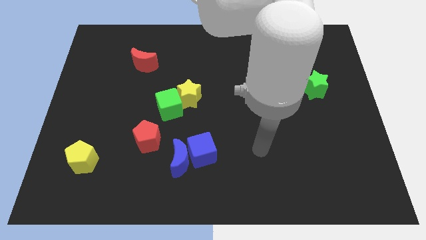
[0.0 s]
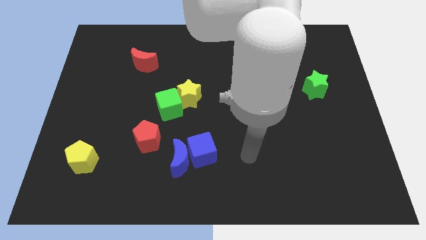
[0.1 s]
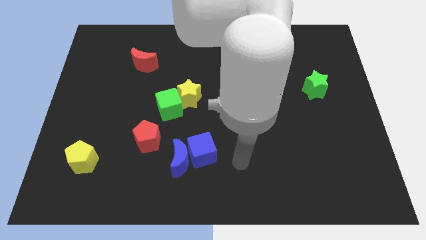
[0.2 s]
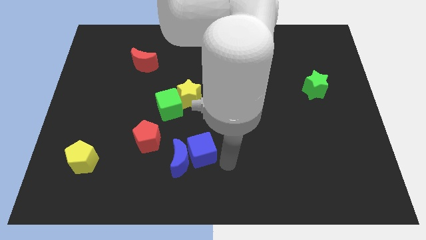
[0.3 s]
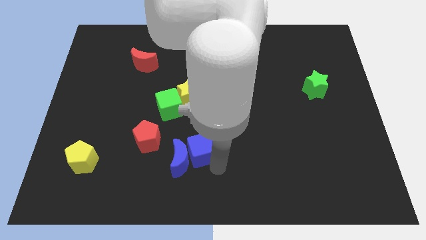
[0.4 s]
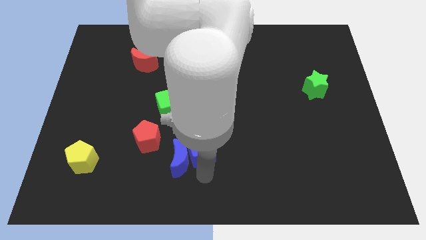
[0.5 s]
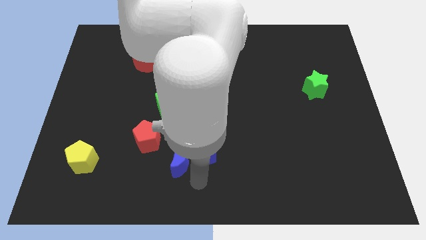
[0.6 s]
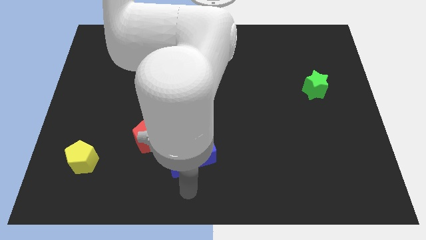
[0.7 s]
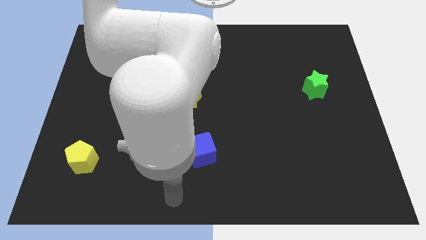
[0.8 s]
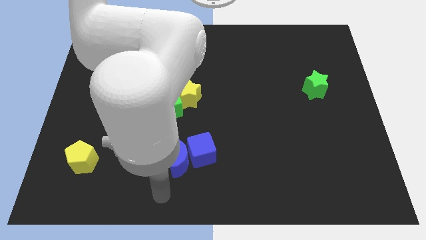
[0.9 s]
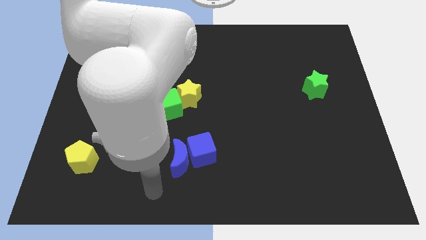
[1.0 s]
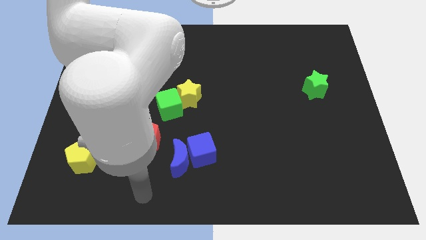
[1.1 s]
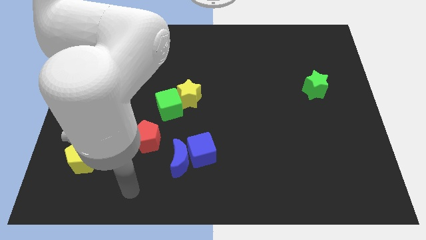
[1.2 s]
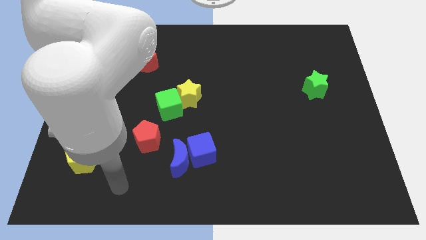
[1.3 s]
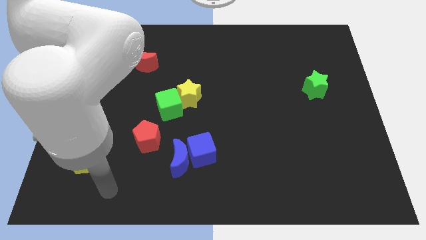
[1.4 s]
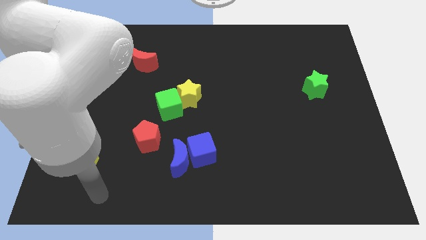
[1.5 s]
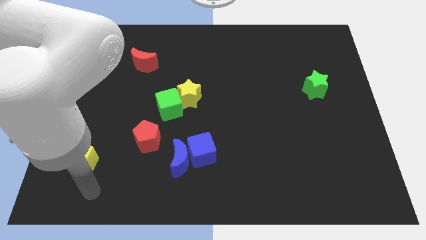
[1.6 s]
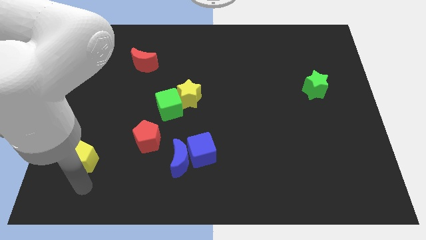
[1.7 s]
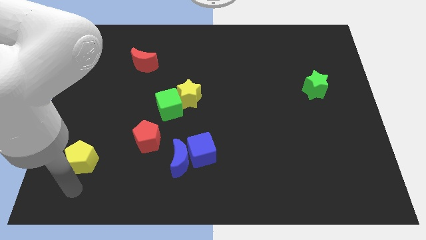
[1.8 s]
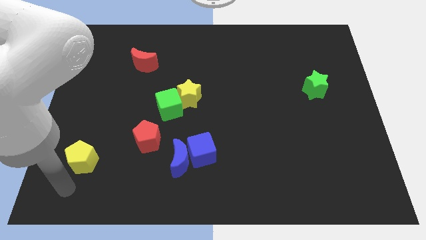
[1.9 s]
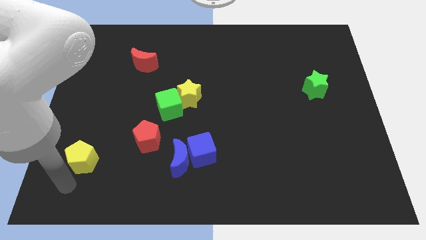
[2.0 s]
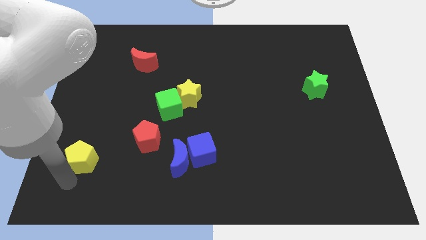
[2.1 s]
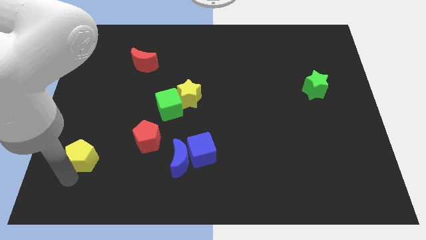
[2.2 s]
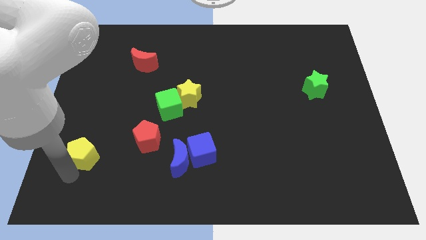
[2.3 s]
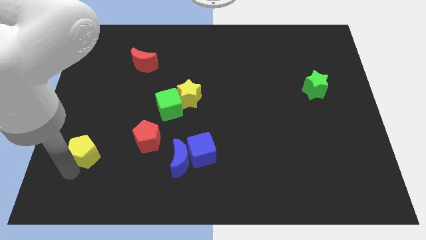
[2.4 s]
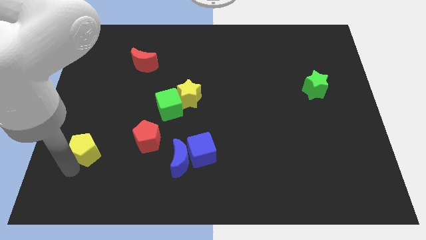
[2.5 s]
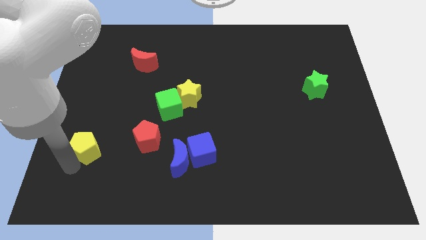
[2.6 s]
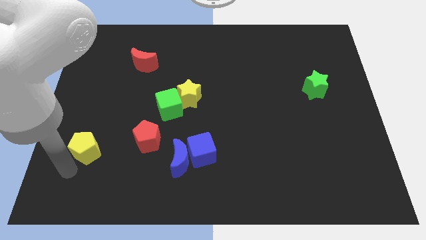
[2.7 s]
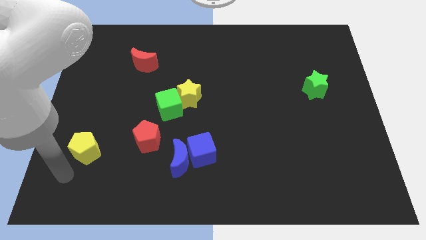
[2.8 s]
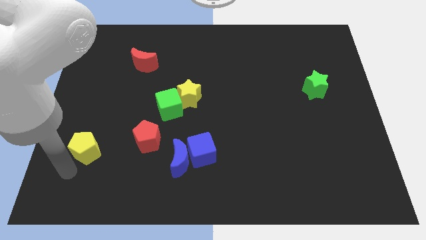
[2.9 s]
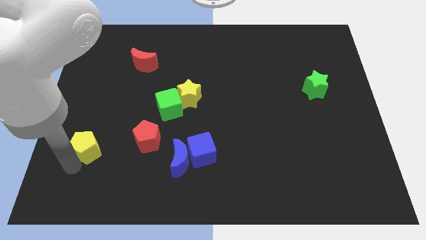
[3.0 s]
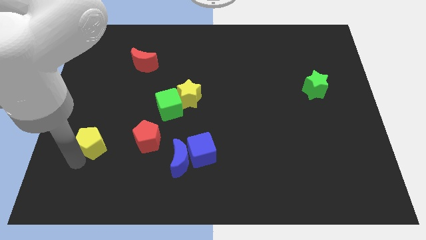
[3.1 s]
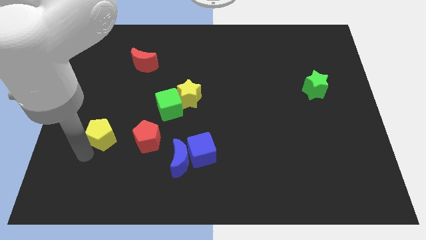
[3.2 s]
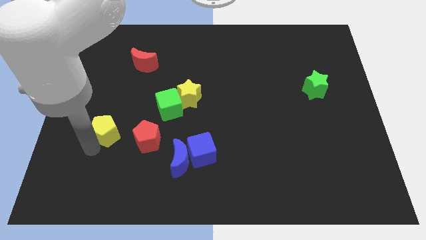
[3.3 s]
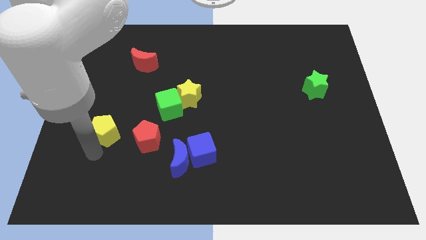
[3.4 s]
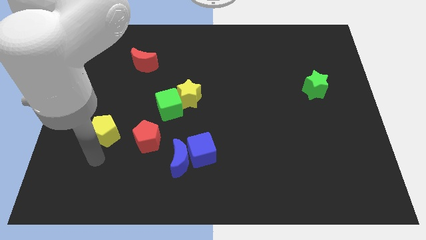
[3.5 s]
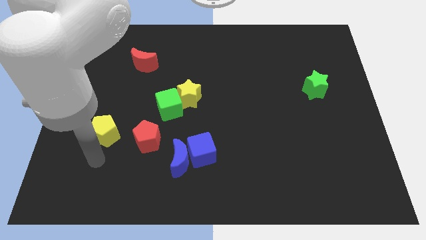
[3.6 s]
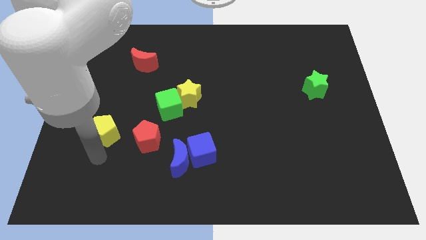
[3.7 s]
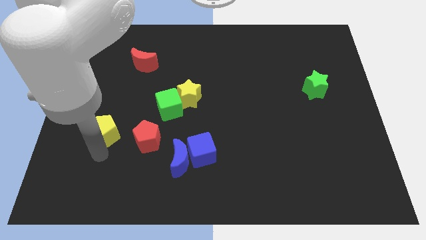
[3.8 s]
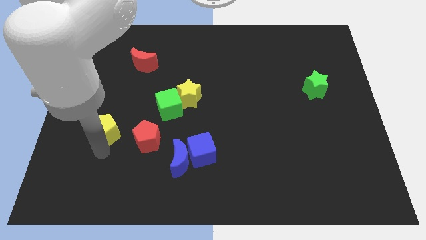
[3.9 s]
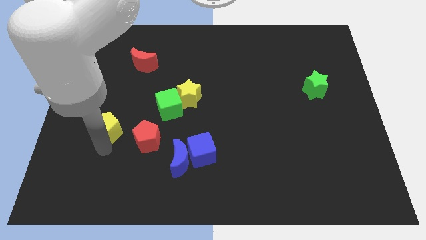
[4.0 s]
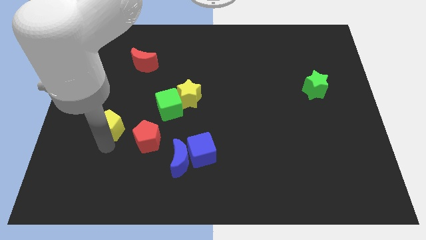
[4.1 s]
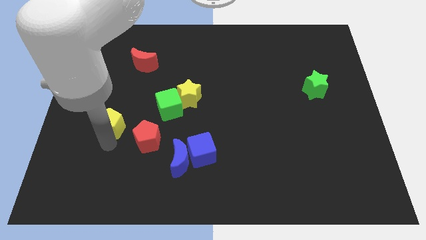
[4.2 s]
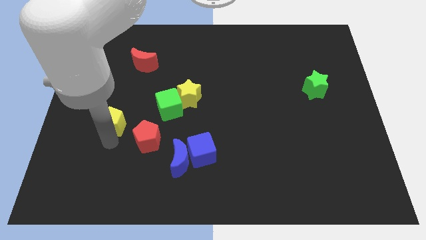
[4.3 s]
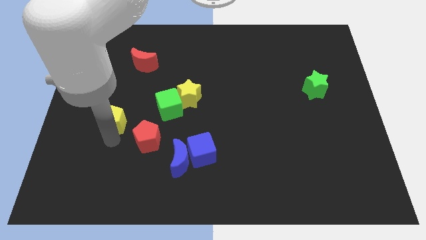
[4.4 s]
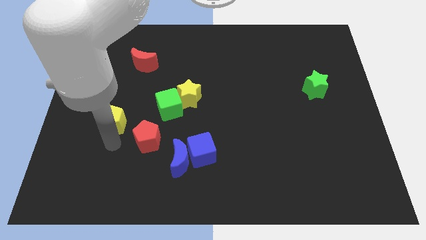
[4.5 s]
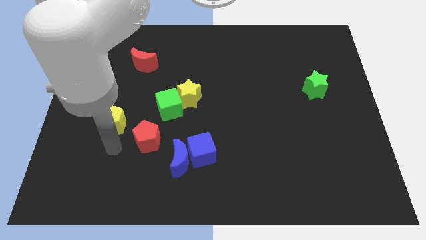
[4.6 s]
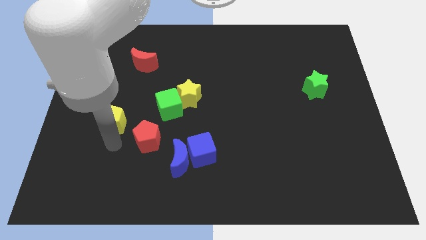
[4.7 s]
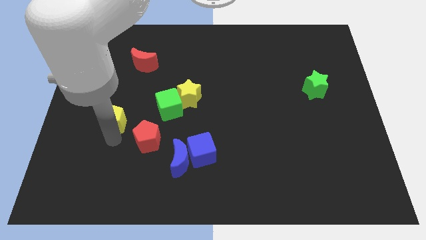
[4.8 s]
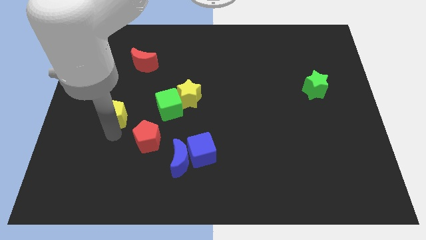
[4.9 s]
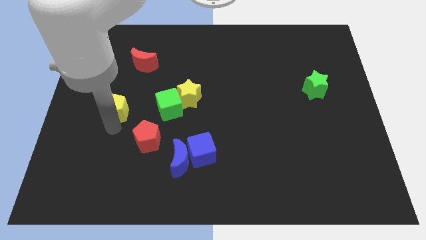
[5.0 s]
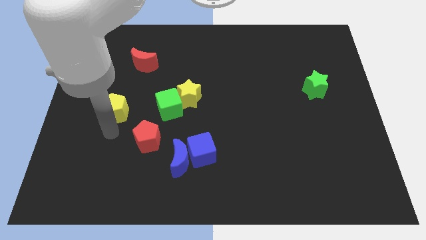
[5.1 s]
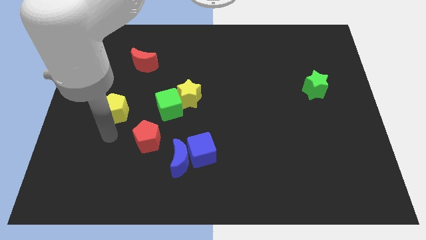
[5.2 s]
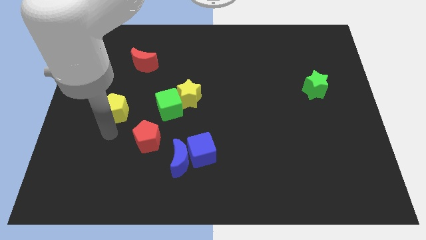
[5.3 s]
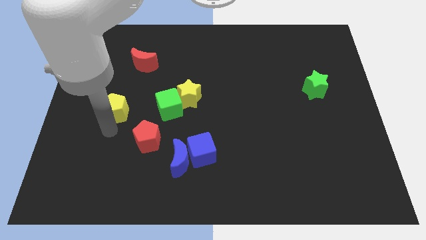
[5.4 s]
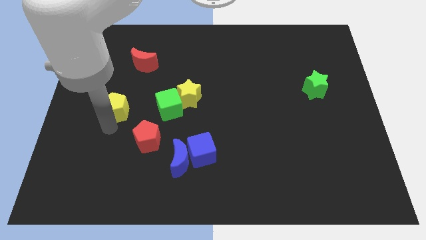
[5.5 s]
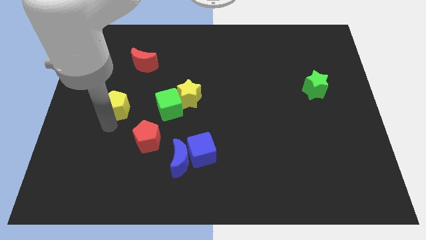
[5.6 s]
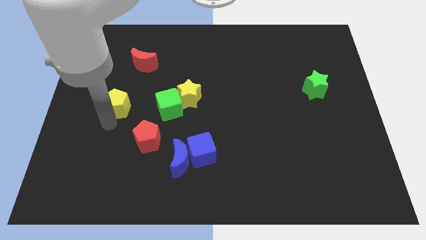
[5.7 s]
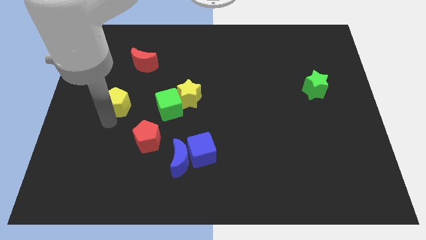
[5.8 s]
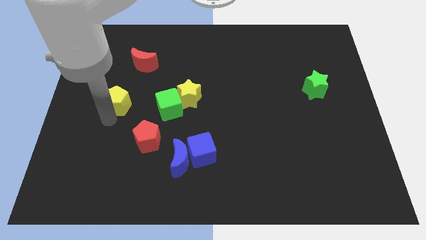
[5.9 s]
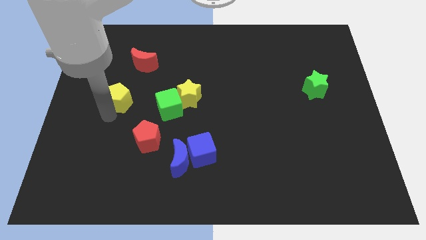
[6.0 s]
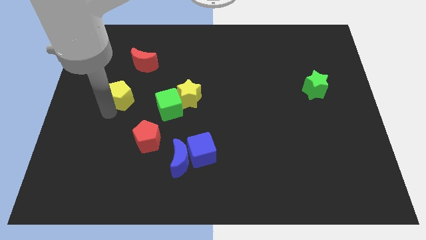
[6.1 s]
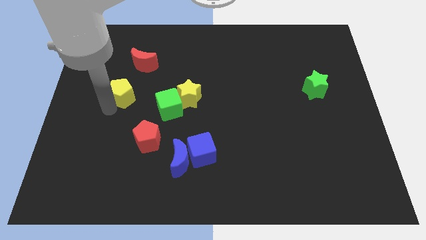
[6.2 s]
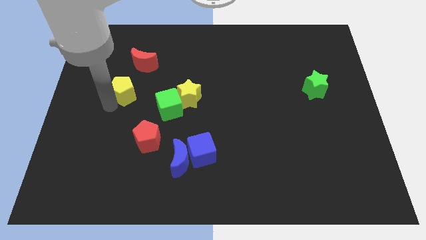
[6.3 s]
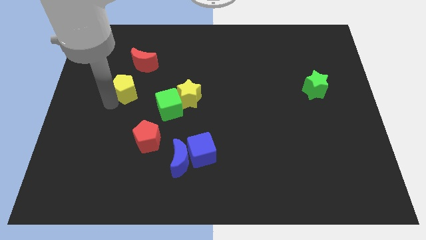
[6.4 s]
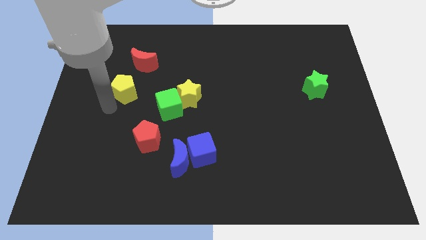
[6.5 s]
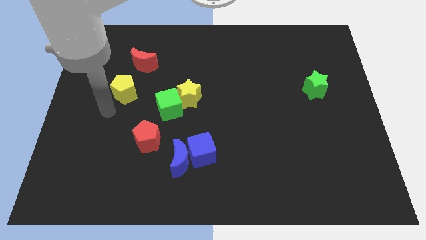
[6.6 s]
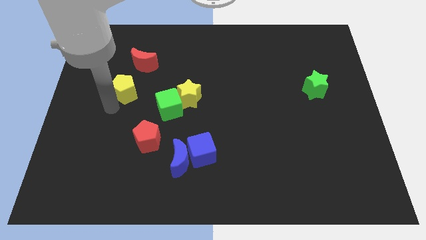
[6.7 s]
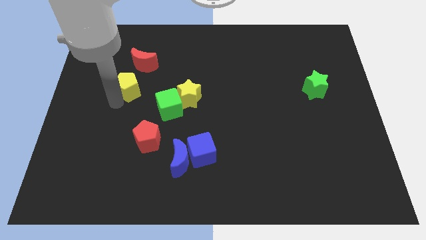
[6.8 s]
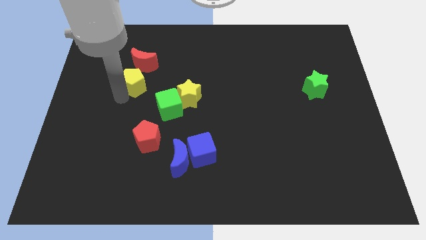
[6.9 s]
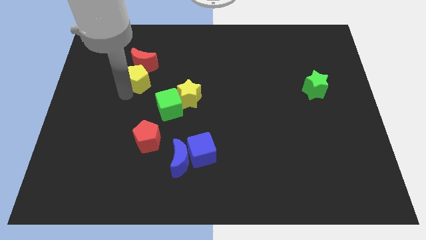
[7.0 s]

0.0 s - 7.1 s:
move the yellow pentagon close to the red moon
